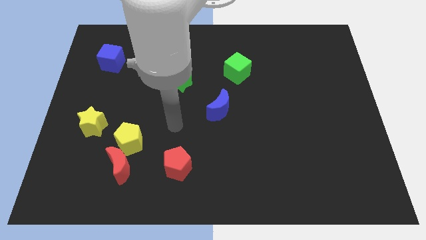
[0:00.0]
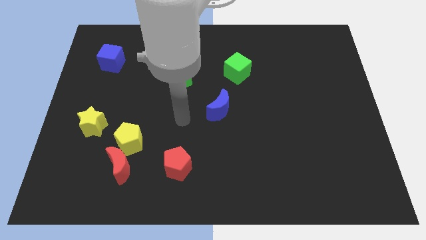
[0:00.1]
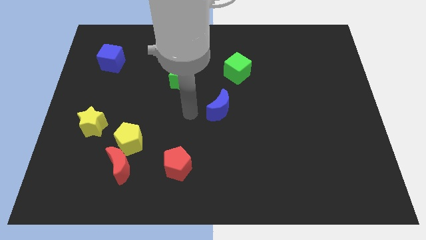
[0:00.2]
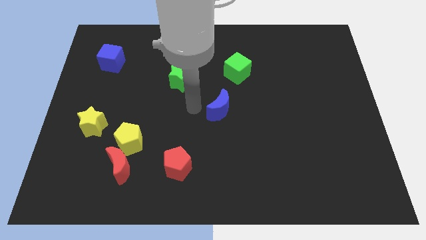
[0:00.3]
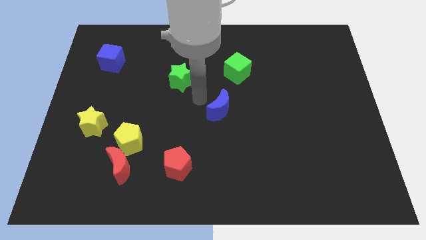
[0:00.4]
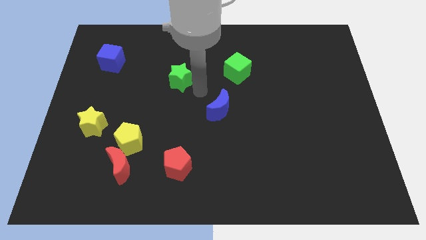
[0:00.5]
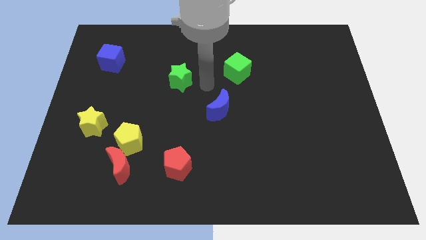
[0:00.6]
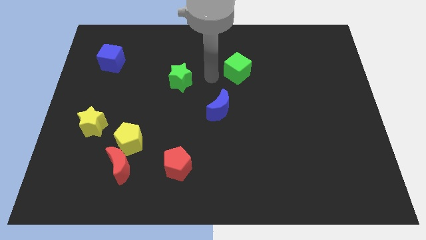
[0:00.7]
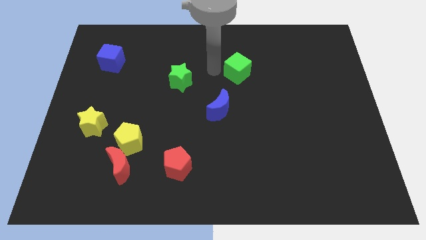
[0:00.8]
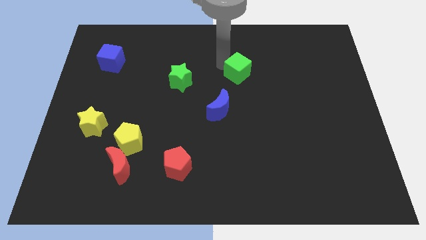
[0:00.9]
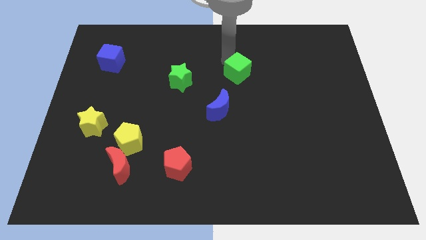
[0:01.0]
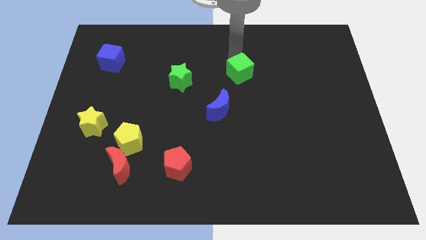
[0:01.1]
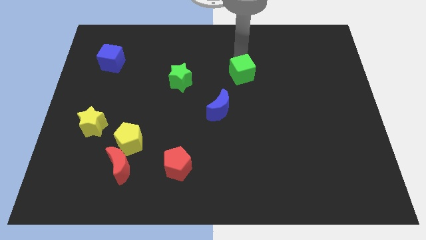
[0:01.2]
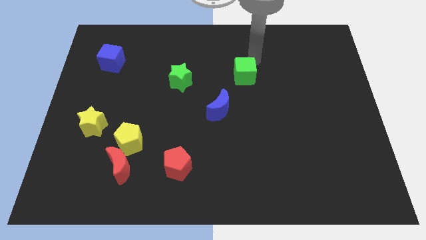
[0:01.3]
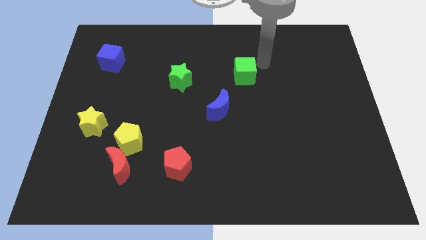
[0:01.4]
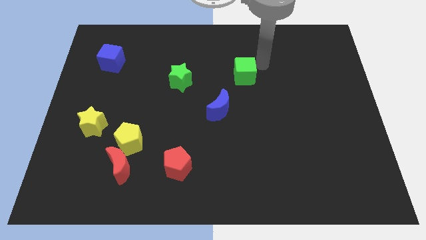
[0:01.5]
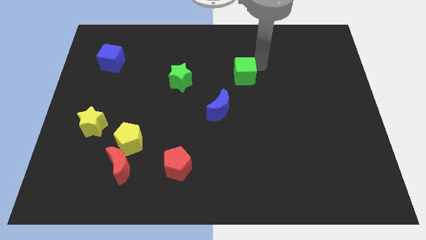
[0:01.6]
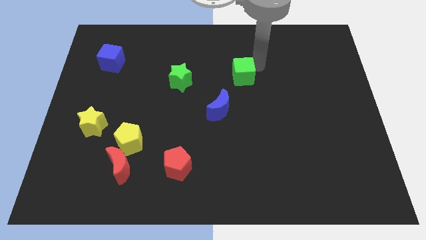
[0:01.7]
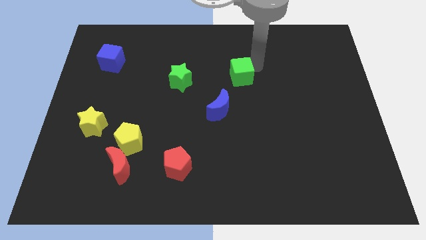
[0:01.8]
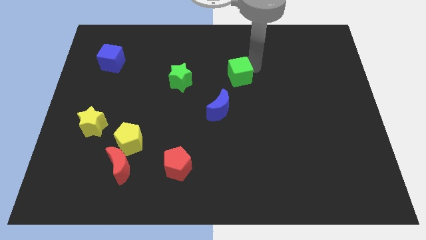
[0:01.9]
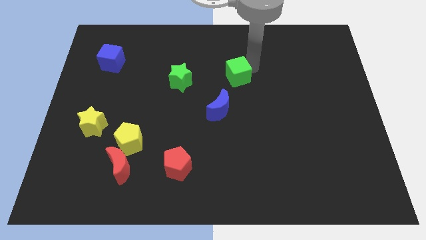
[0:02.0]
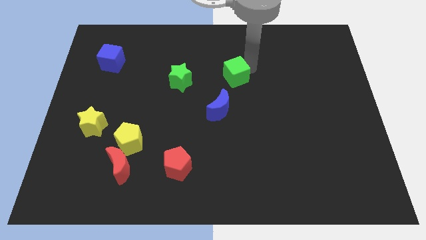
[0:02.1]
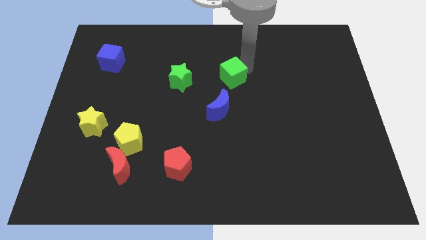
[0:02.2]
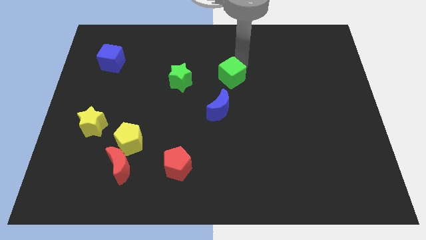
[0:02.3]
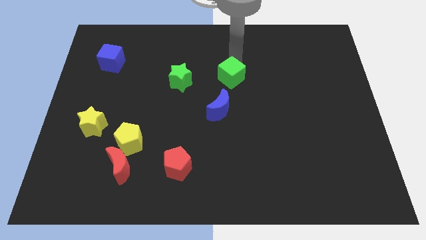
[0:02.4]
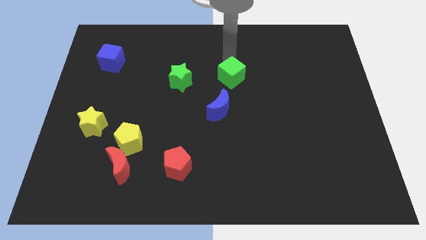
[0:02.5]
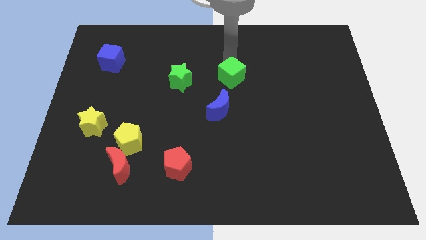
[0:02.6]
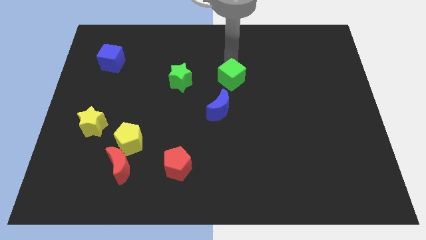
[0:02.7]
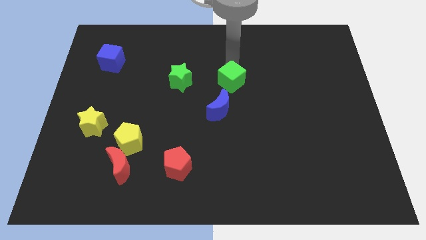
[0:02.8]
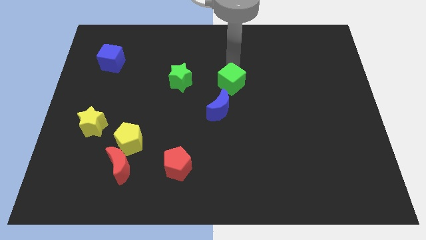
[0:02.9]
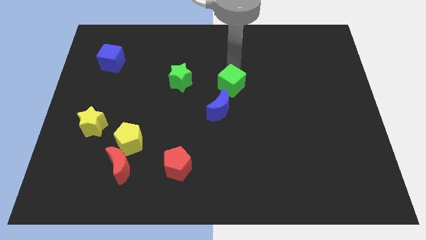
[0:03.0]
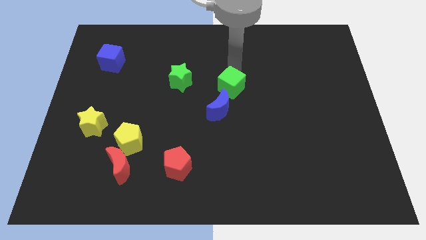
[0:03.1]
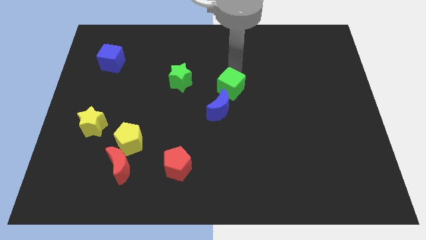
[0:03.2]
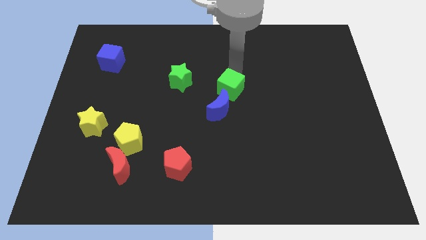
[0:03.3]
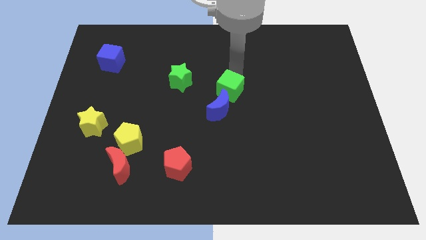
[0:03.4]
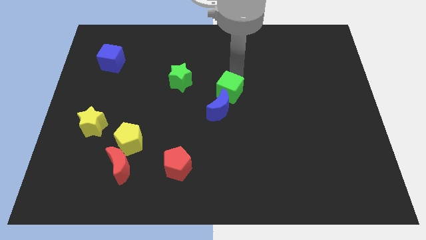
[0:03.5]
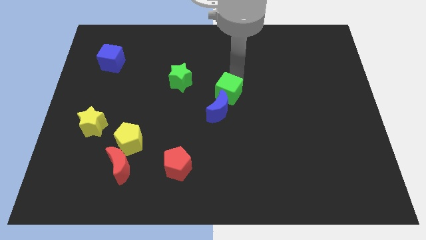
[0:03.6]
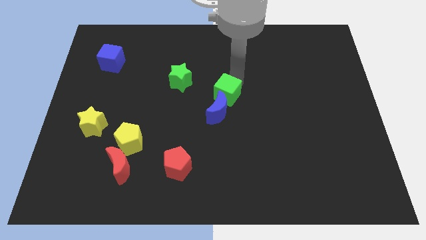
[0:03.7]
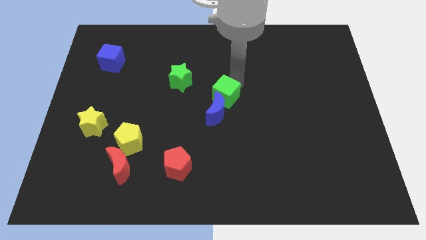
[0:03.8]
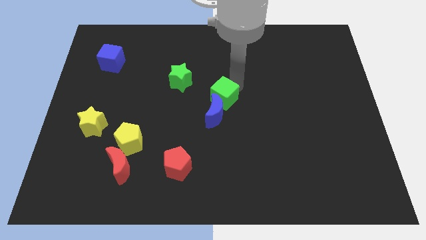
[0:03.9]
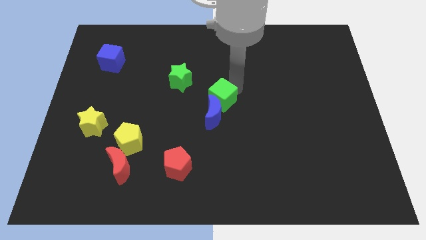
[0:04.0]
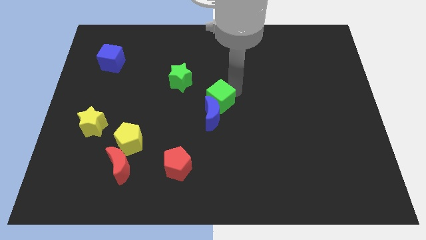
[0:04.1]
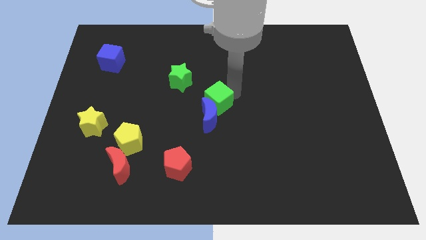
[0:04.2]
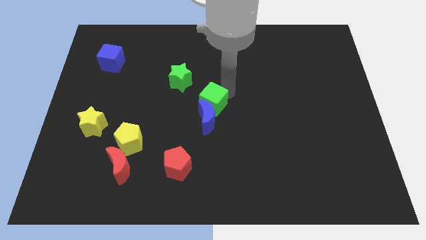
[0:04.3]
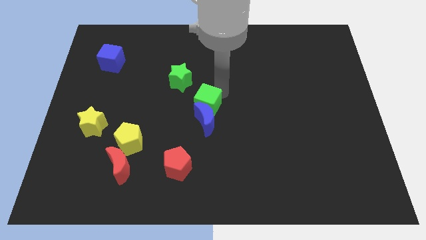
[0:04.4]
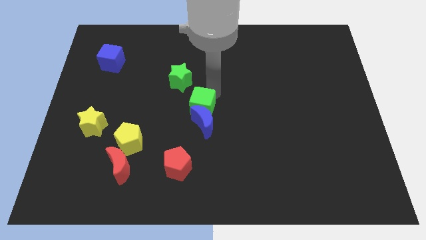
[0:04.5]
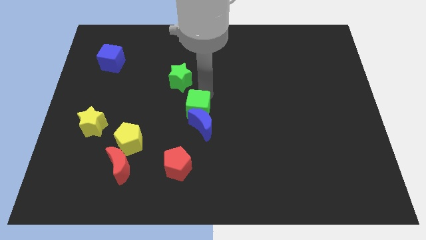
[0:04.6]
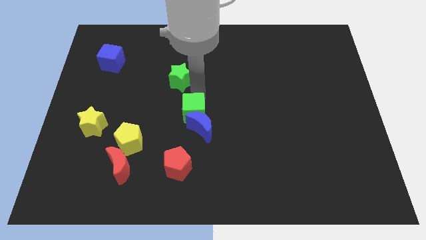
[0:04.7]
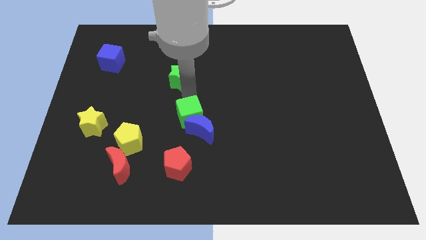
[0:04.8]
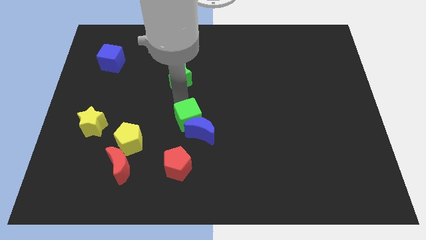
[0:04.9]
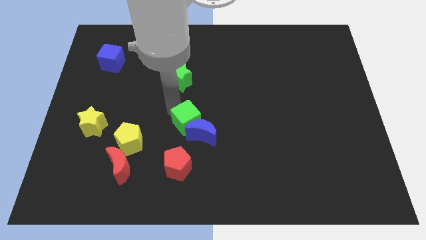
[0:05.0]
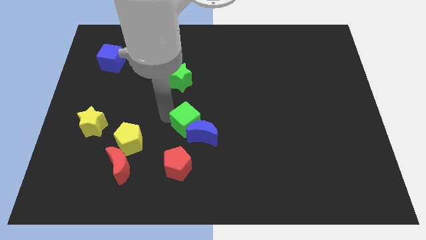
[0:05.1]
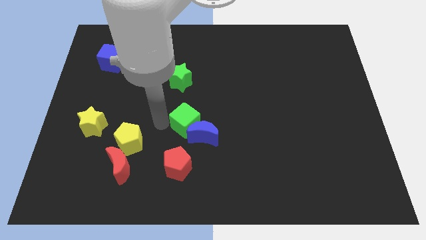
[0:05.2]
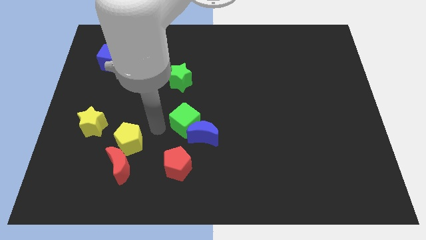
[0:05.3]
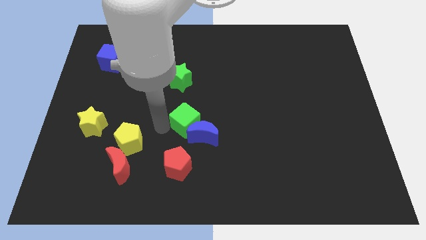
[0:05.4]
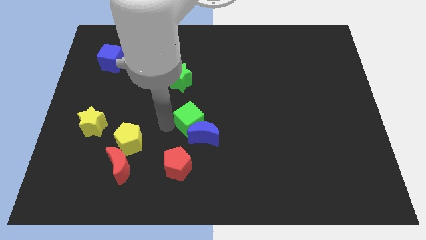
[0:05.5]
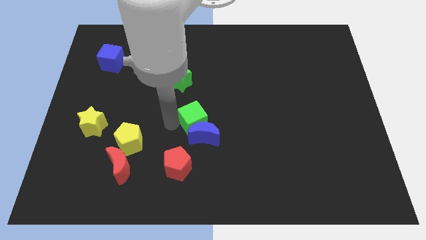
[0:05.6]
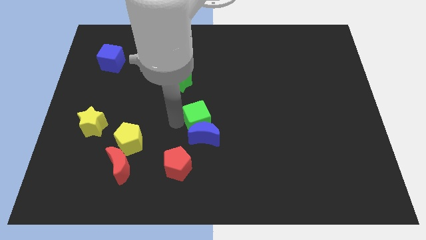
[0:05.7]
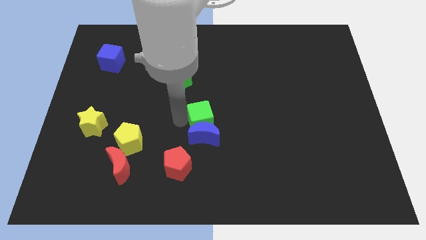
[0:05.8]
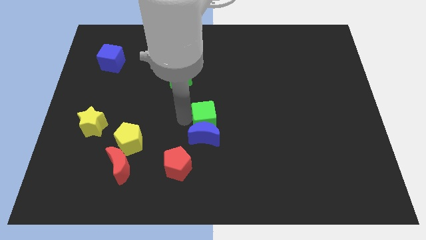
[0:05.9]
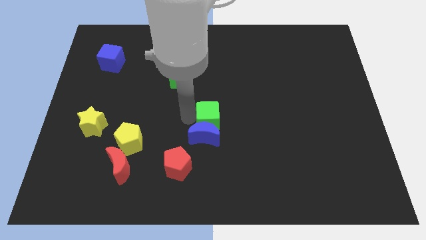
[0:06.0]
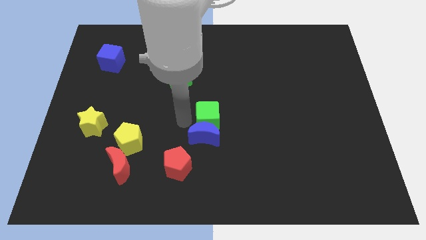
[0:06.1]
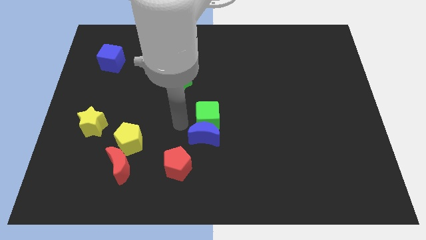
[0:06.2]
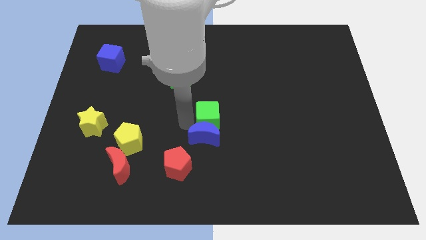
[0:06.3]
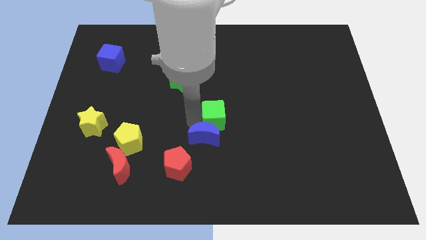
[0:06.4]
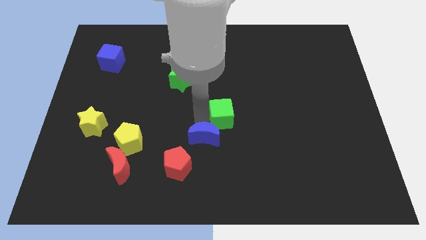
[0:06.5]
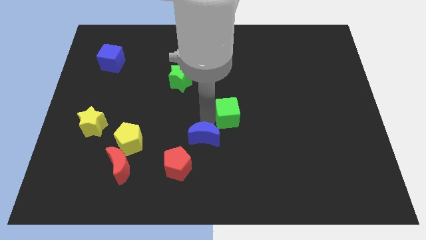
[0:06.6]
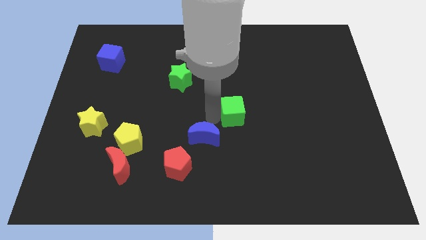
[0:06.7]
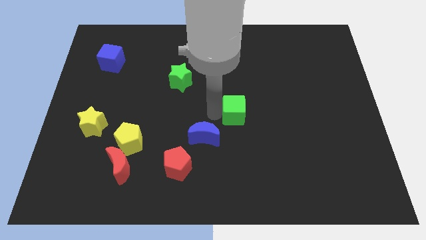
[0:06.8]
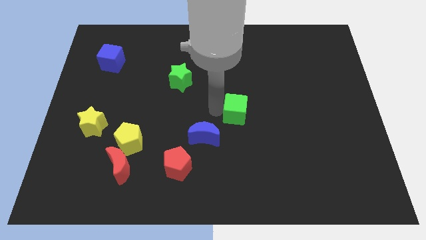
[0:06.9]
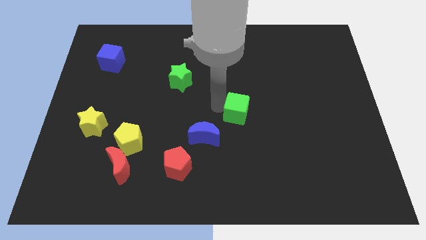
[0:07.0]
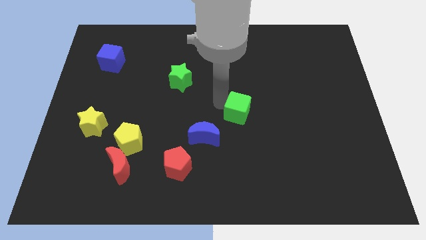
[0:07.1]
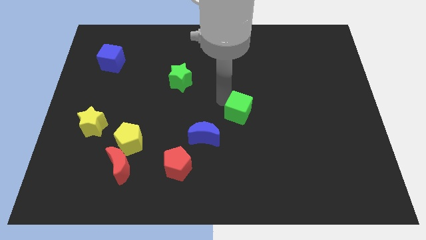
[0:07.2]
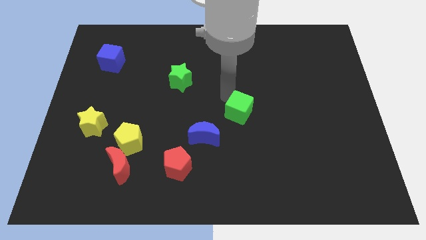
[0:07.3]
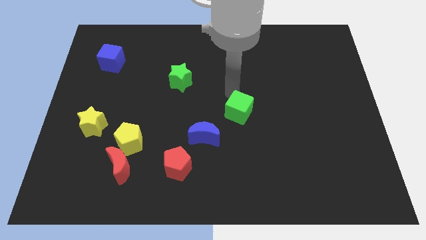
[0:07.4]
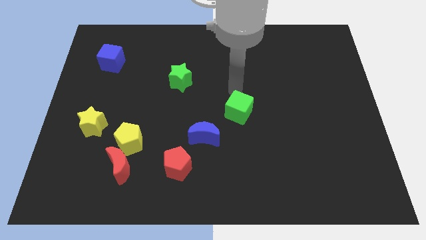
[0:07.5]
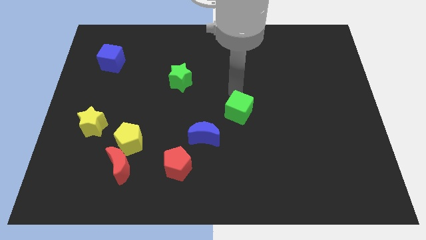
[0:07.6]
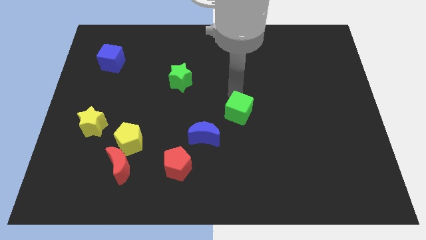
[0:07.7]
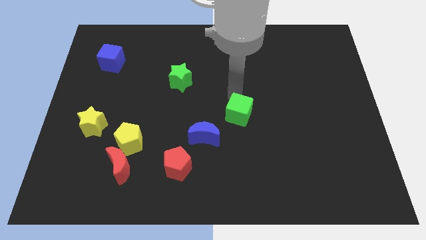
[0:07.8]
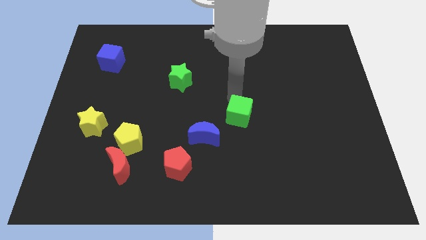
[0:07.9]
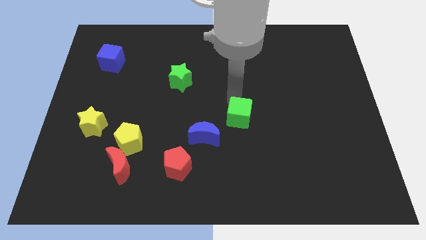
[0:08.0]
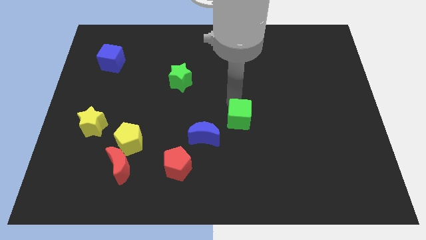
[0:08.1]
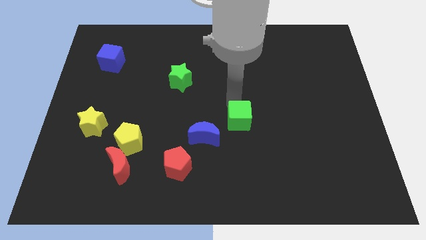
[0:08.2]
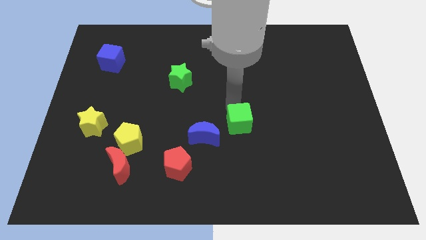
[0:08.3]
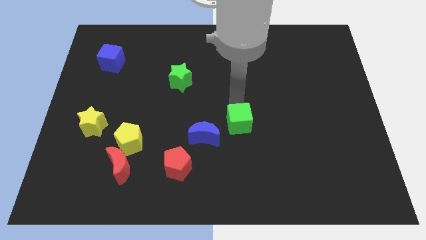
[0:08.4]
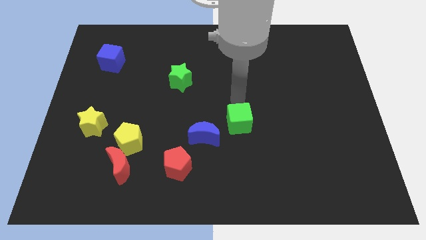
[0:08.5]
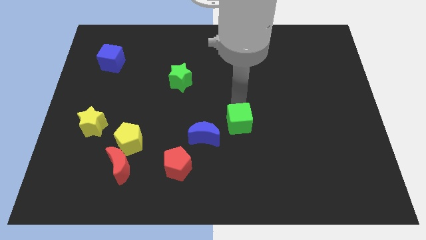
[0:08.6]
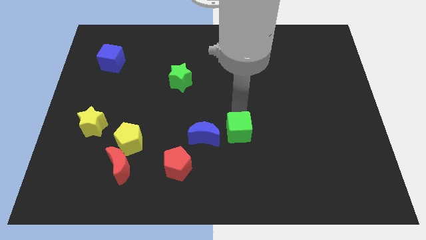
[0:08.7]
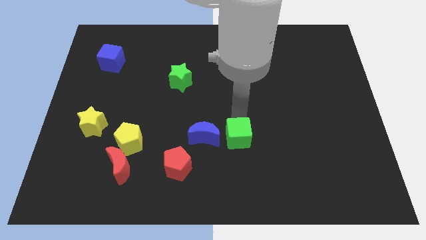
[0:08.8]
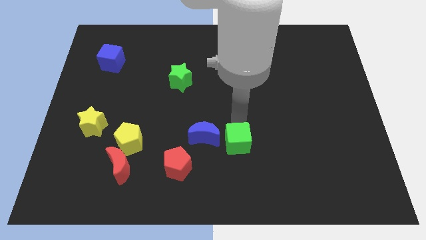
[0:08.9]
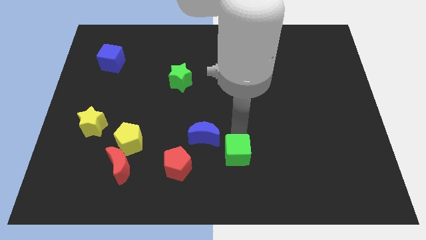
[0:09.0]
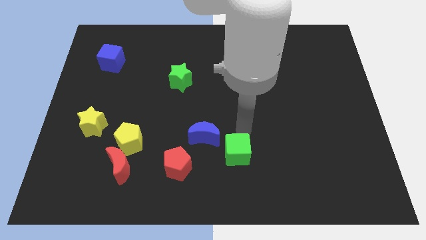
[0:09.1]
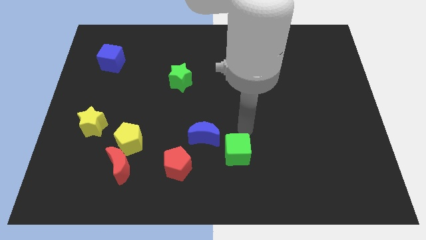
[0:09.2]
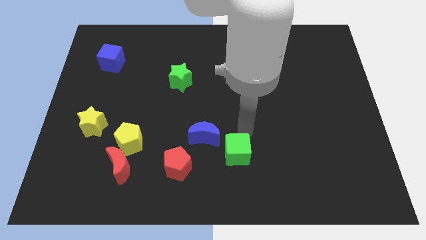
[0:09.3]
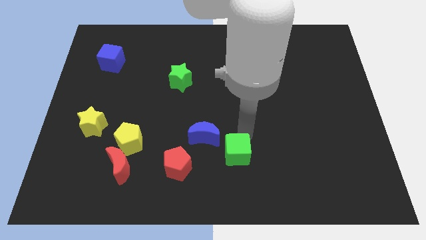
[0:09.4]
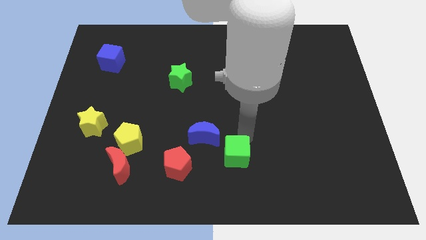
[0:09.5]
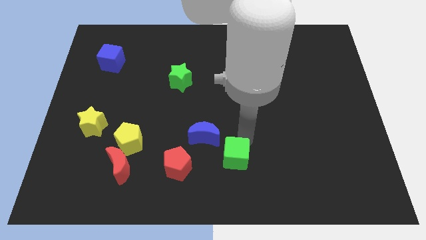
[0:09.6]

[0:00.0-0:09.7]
push the green cube to the bottom
